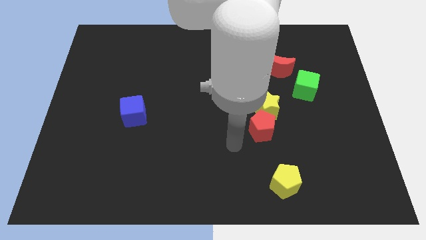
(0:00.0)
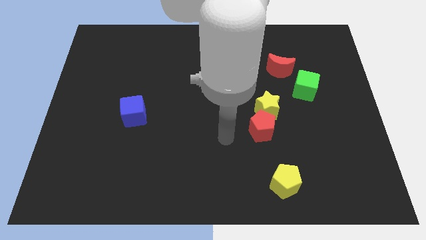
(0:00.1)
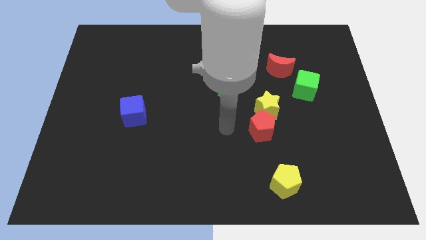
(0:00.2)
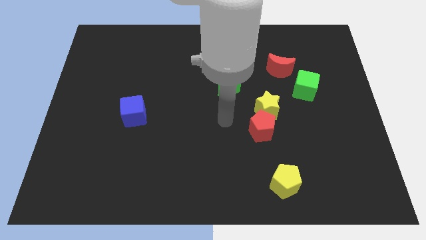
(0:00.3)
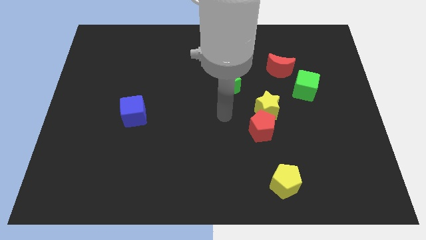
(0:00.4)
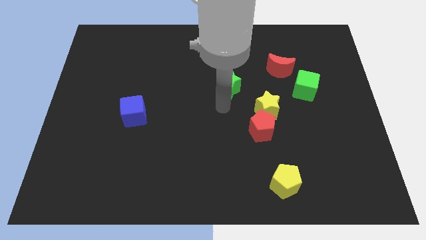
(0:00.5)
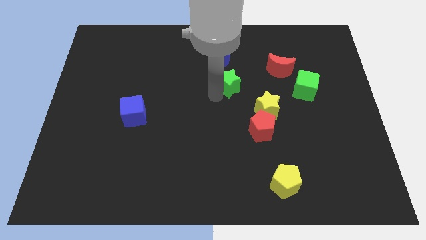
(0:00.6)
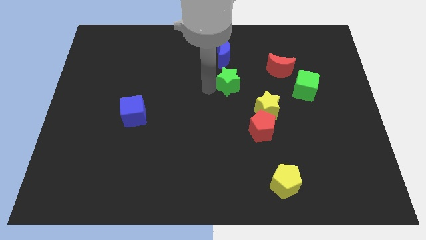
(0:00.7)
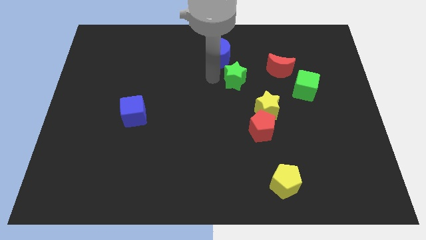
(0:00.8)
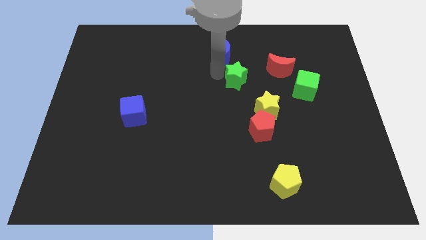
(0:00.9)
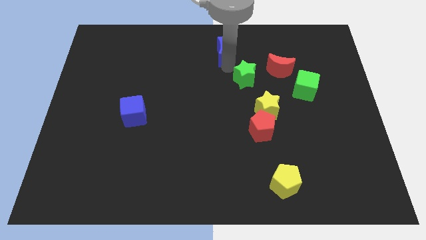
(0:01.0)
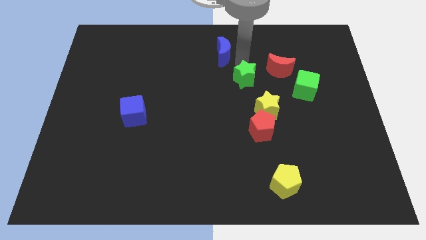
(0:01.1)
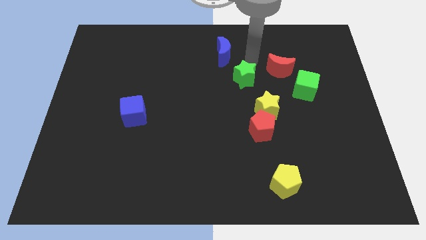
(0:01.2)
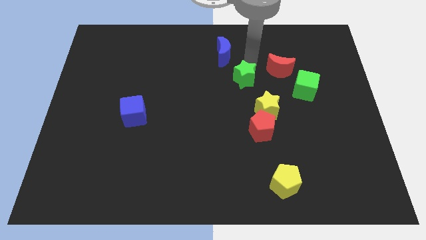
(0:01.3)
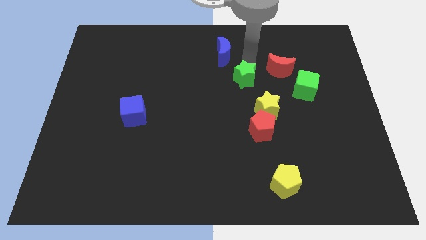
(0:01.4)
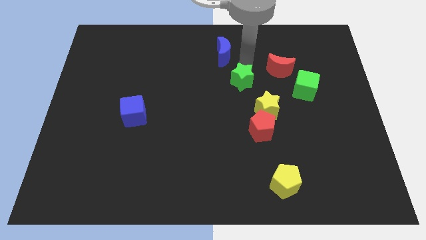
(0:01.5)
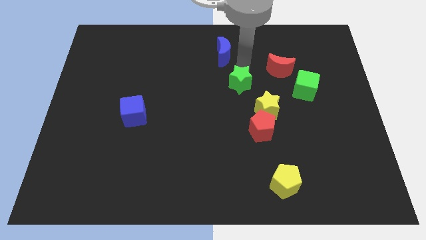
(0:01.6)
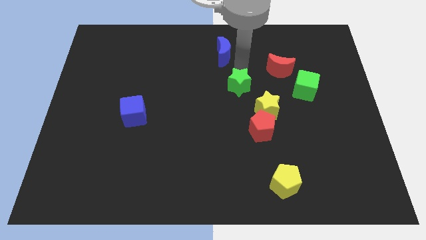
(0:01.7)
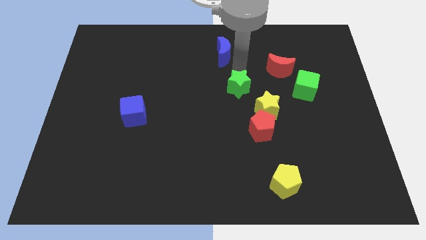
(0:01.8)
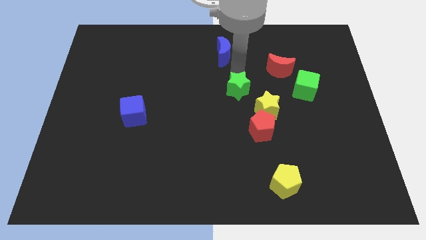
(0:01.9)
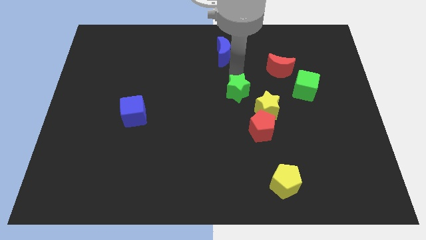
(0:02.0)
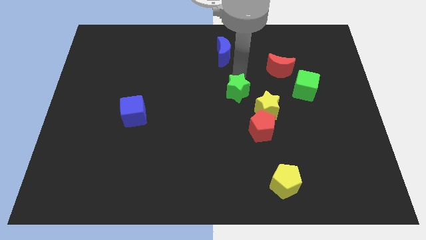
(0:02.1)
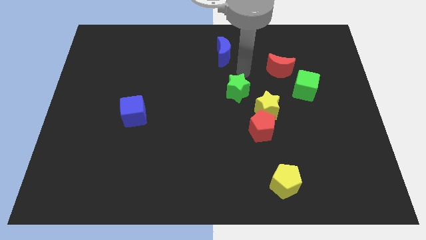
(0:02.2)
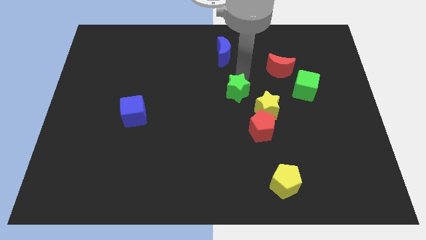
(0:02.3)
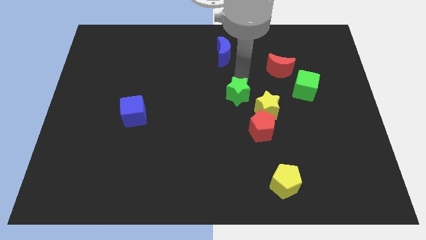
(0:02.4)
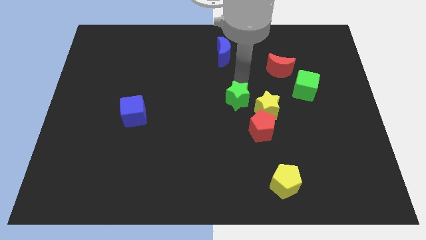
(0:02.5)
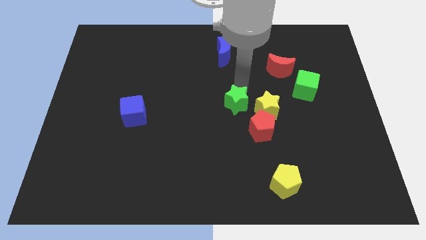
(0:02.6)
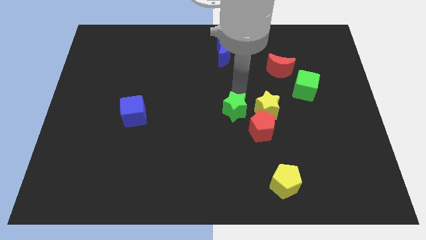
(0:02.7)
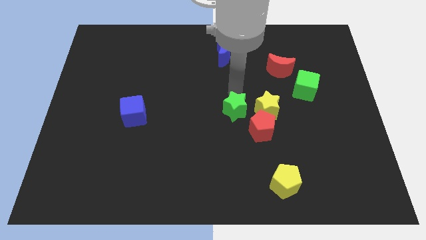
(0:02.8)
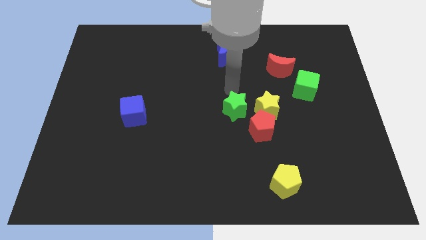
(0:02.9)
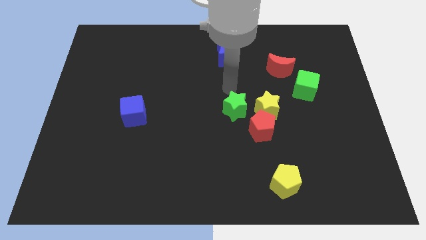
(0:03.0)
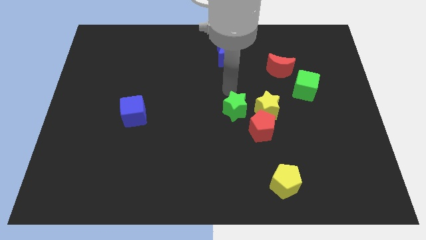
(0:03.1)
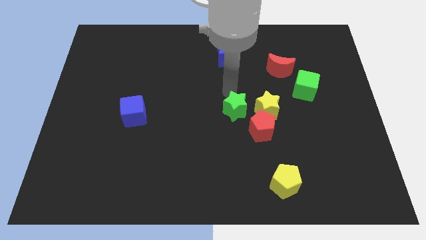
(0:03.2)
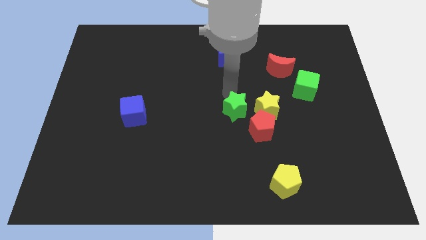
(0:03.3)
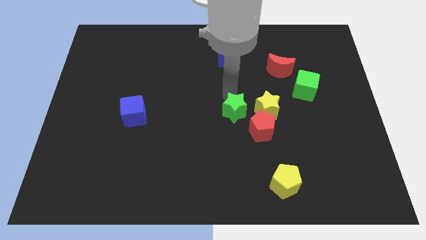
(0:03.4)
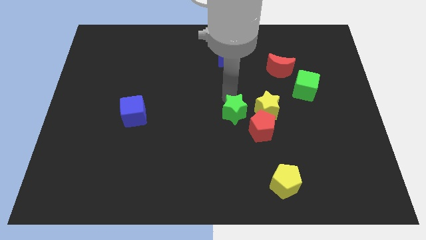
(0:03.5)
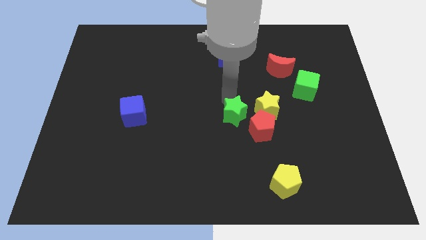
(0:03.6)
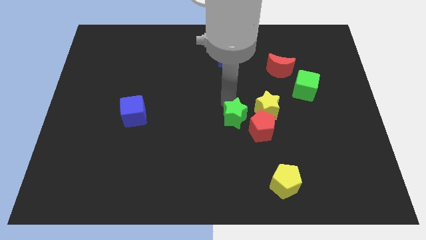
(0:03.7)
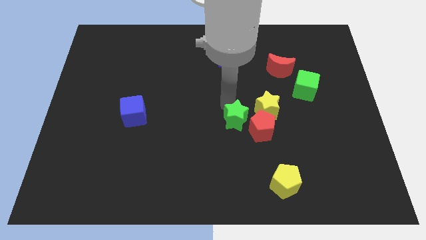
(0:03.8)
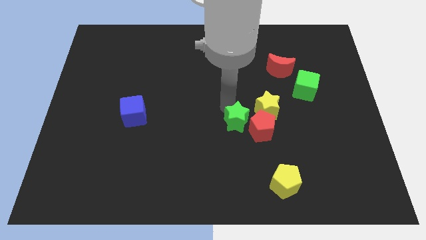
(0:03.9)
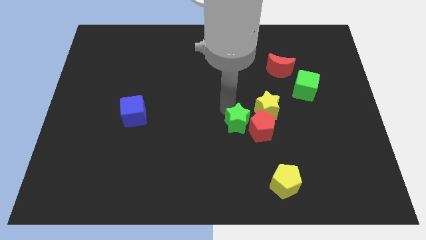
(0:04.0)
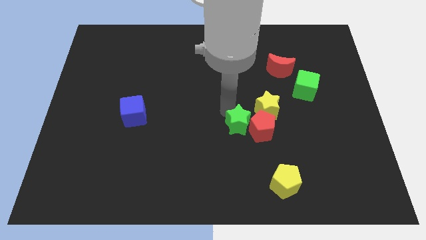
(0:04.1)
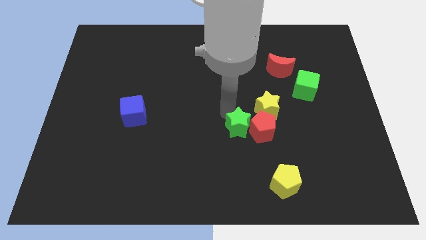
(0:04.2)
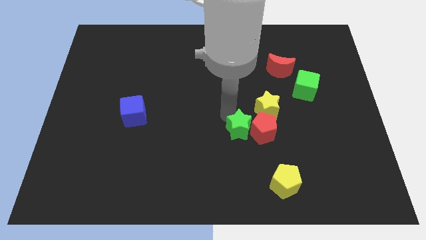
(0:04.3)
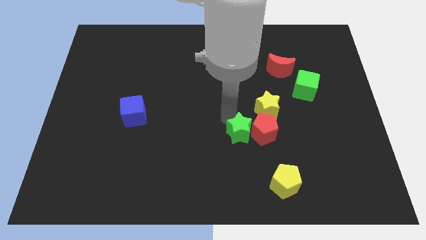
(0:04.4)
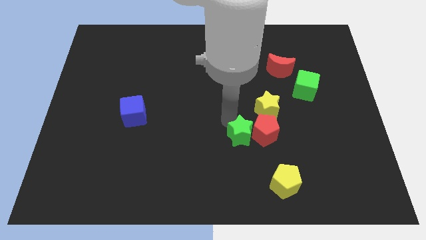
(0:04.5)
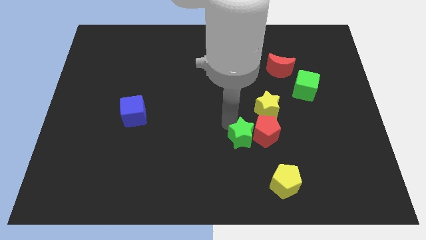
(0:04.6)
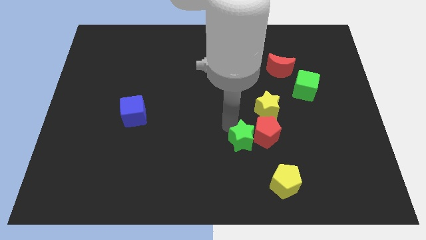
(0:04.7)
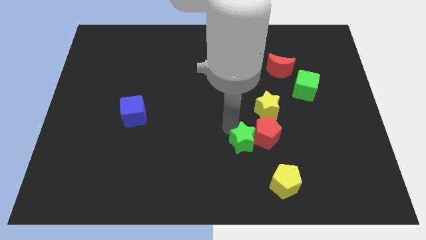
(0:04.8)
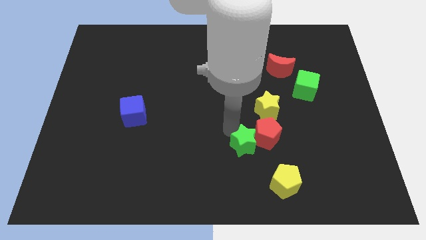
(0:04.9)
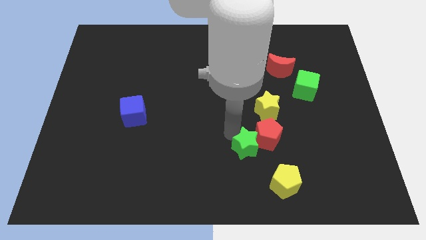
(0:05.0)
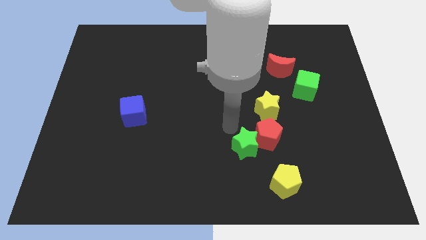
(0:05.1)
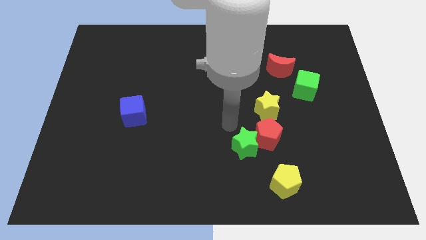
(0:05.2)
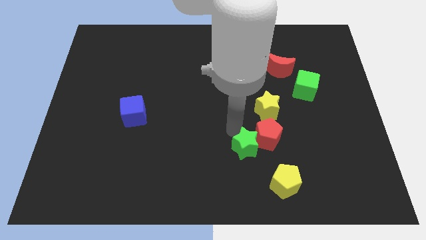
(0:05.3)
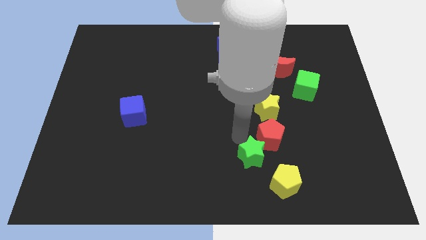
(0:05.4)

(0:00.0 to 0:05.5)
push the green star to the bottom of the red pentagon

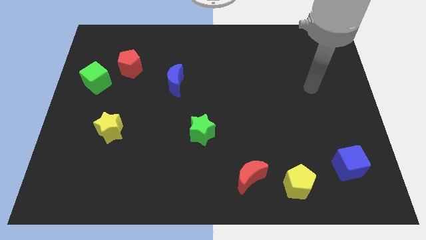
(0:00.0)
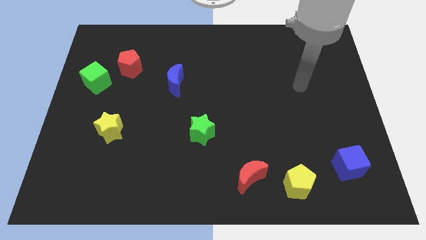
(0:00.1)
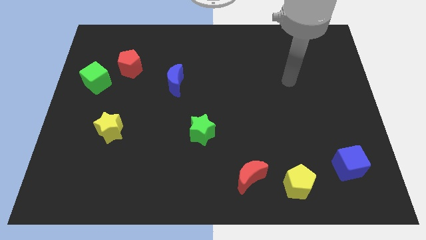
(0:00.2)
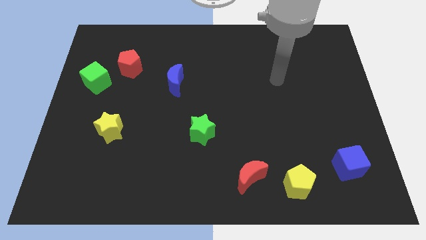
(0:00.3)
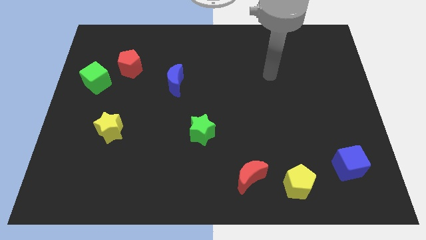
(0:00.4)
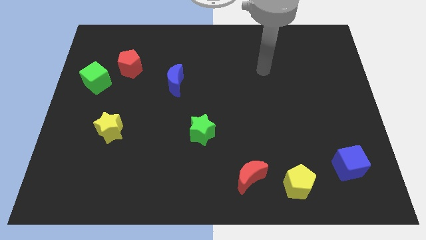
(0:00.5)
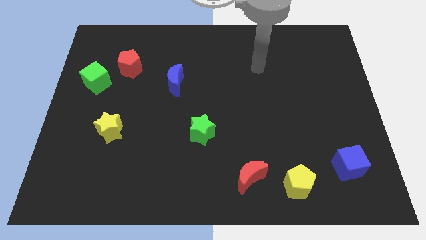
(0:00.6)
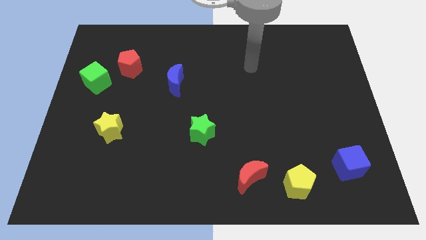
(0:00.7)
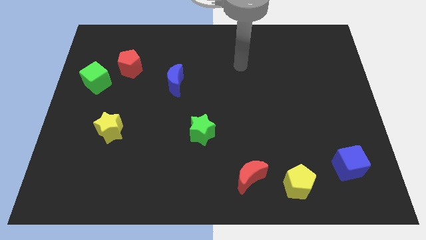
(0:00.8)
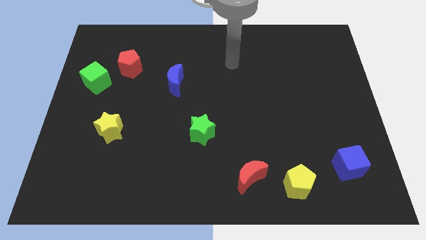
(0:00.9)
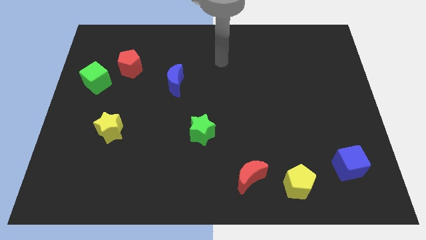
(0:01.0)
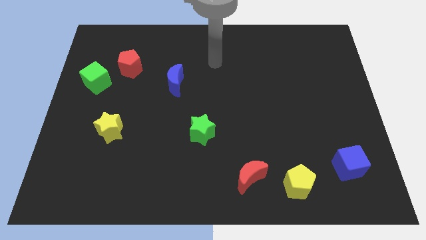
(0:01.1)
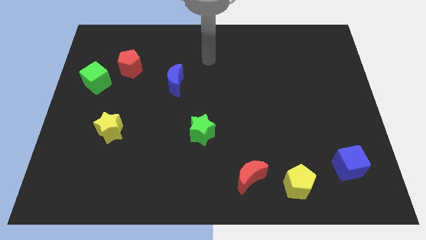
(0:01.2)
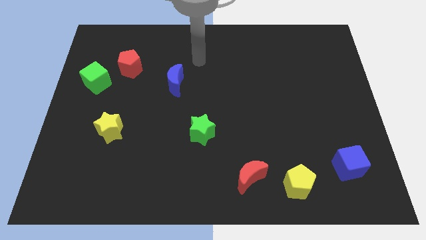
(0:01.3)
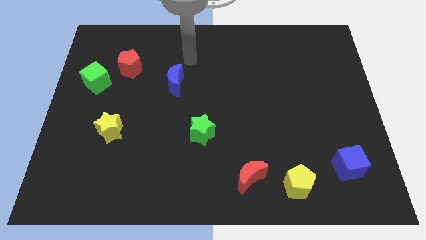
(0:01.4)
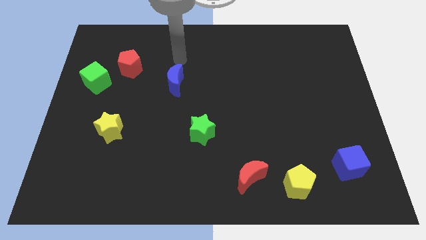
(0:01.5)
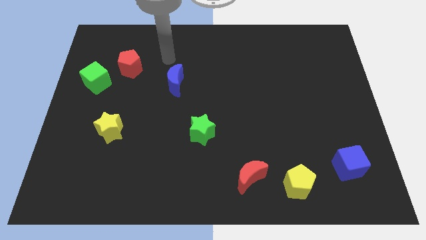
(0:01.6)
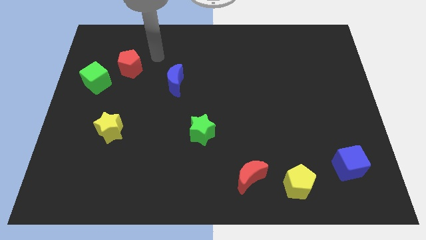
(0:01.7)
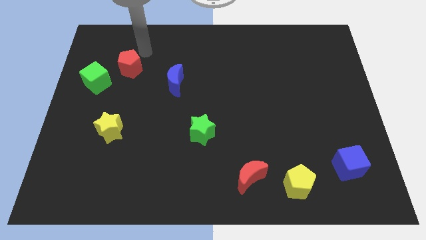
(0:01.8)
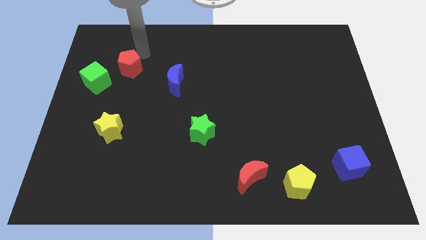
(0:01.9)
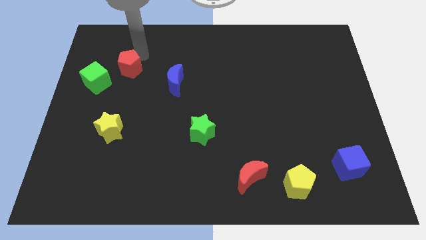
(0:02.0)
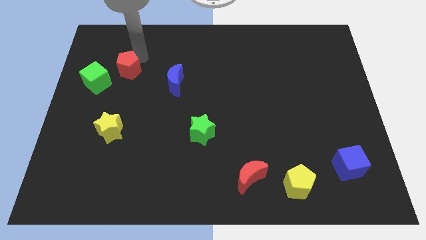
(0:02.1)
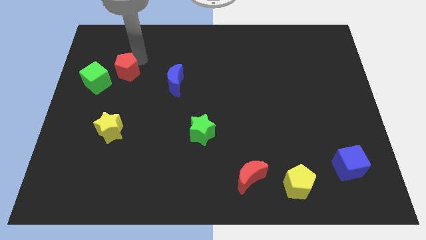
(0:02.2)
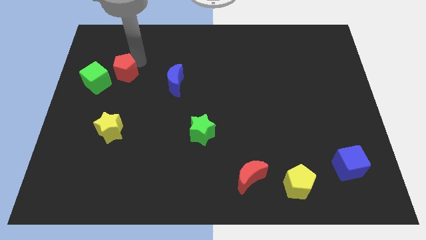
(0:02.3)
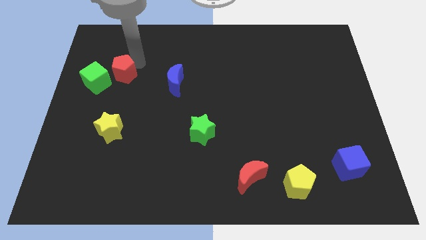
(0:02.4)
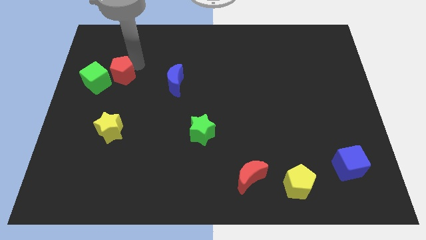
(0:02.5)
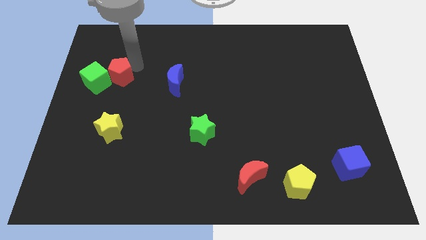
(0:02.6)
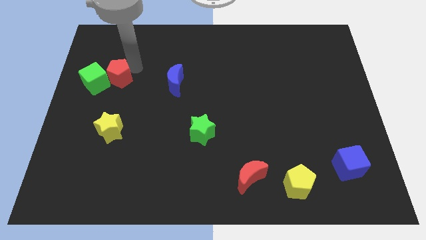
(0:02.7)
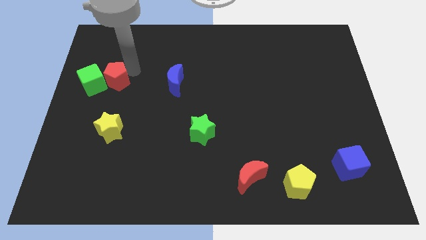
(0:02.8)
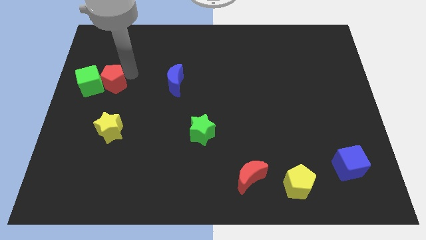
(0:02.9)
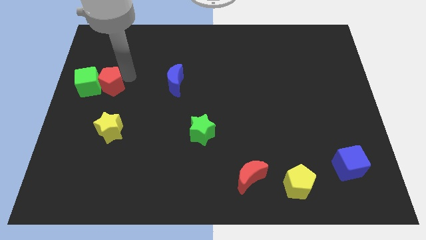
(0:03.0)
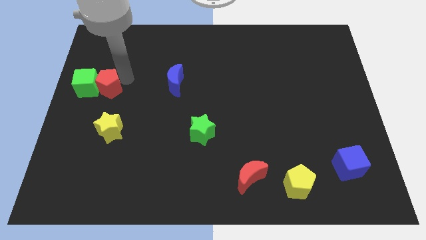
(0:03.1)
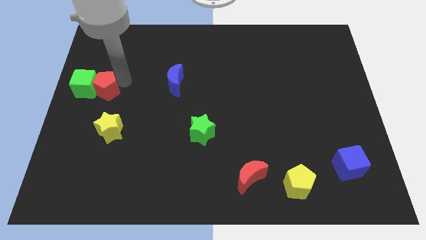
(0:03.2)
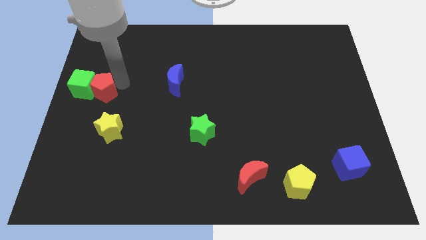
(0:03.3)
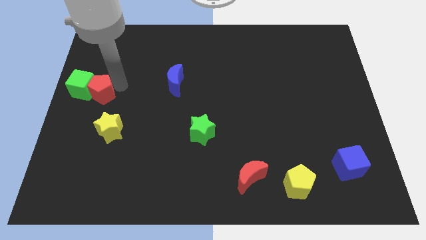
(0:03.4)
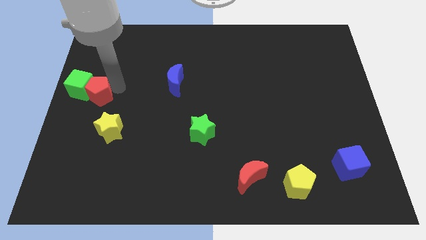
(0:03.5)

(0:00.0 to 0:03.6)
slide the red pentagon to the top left side of the yellow star
